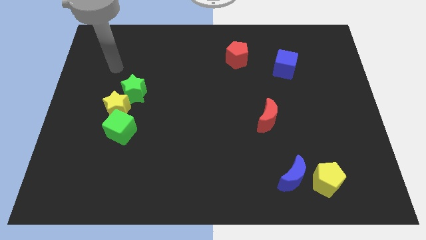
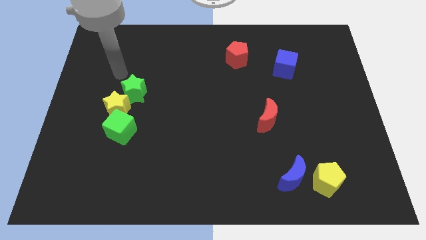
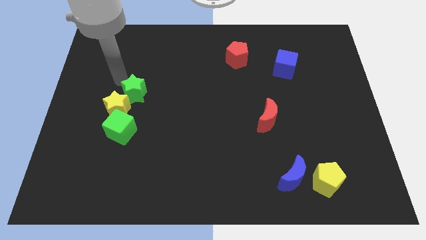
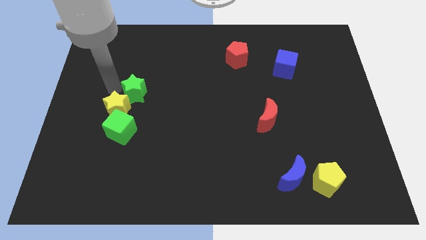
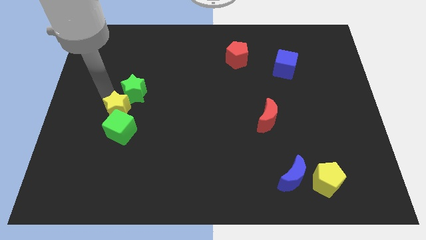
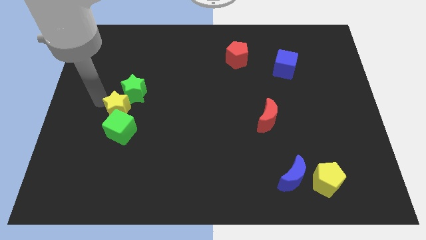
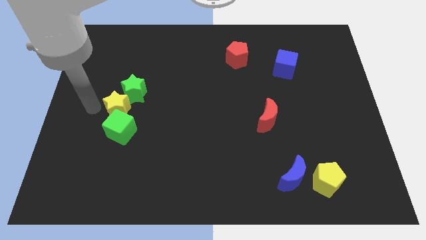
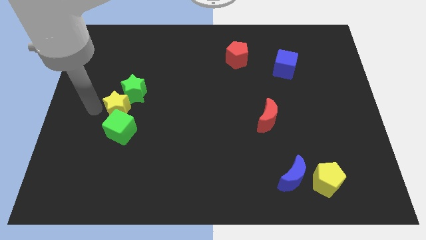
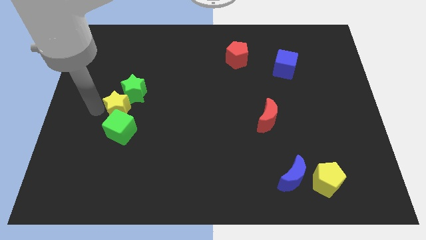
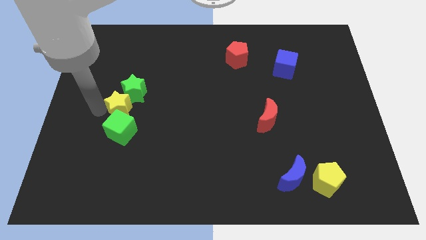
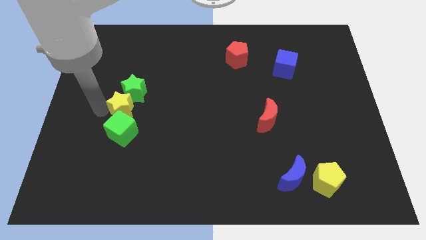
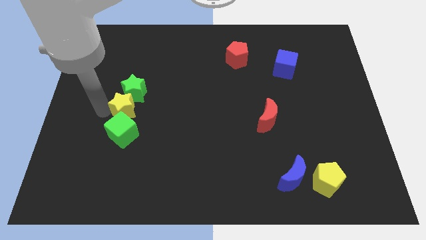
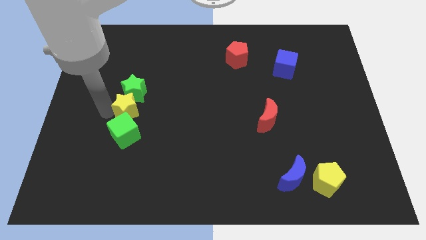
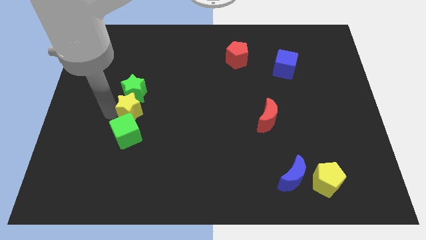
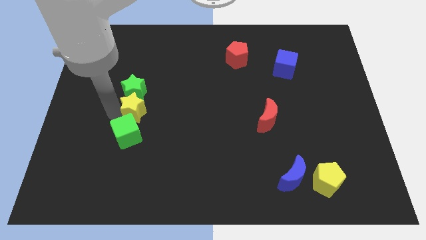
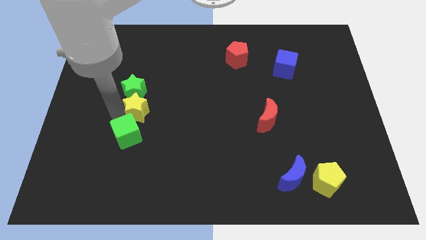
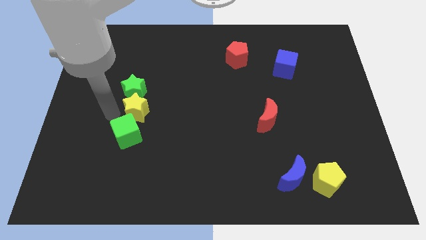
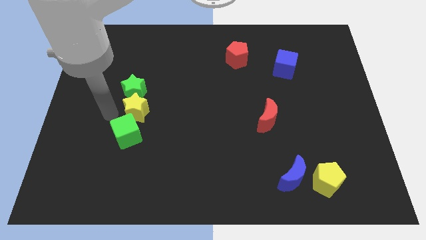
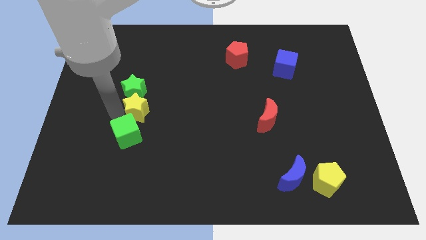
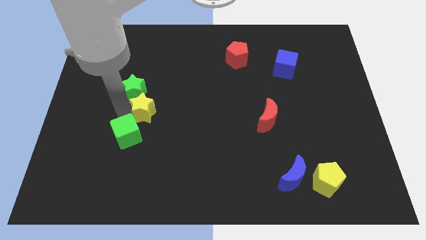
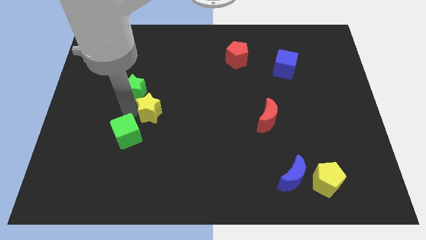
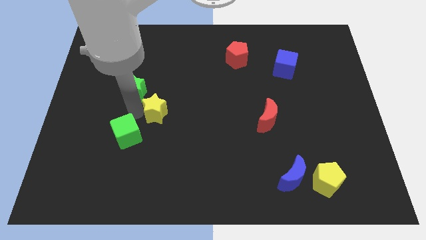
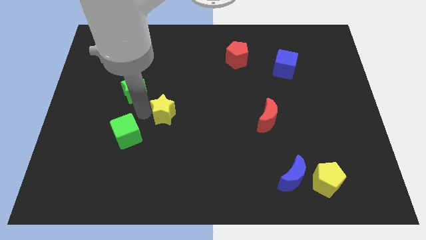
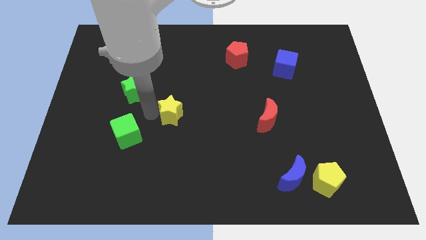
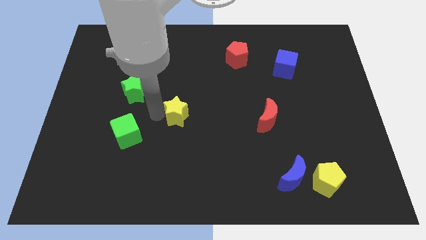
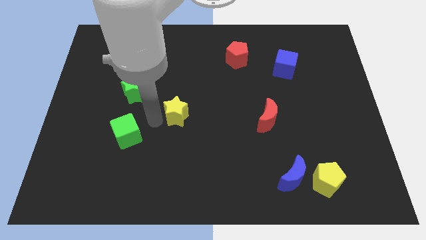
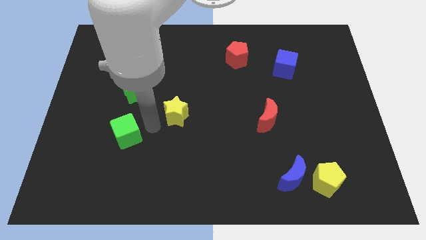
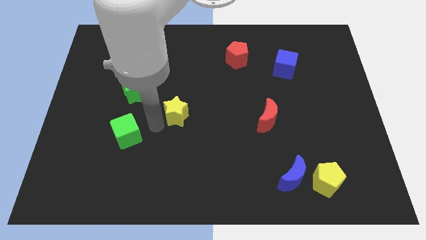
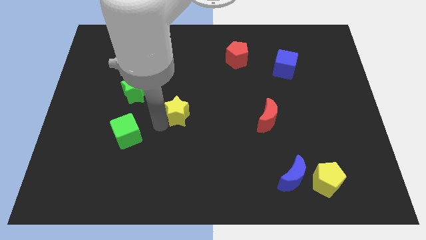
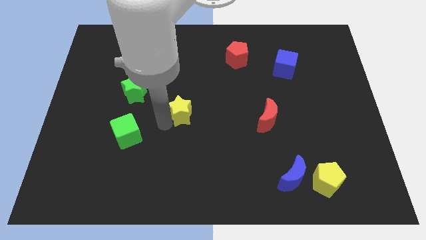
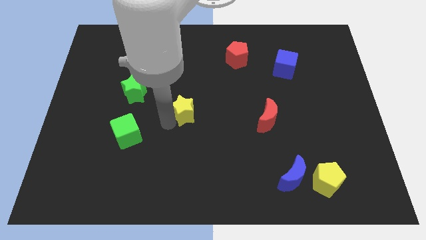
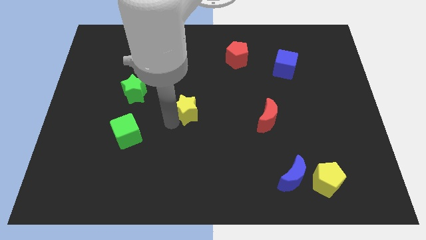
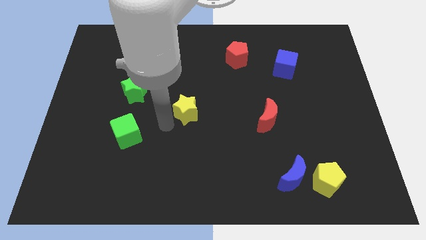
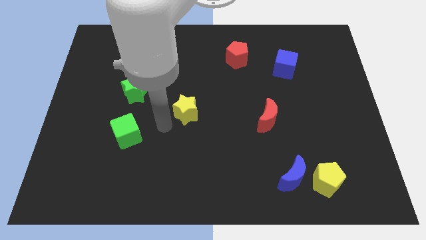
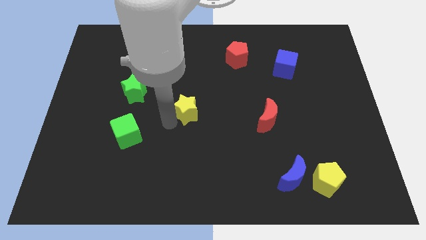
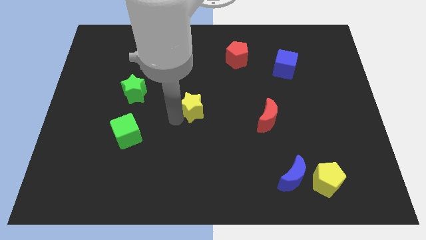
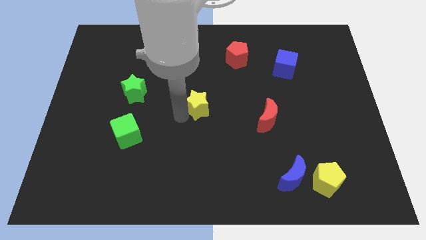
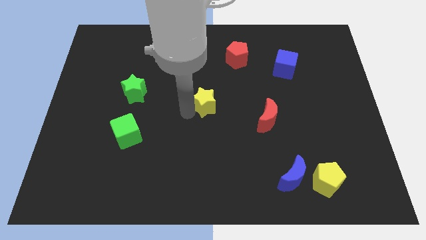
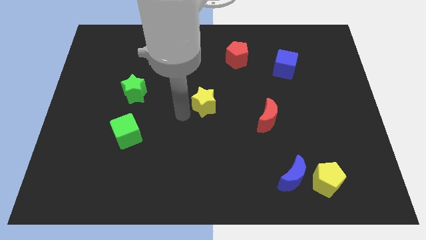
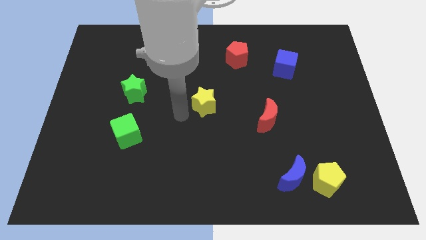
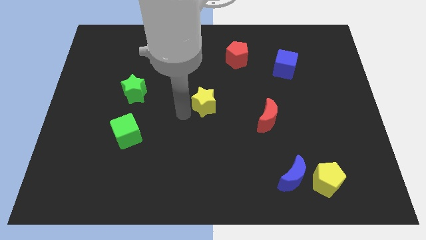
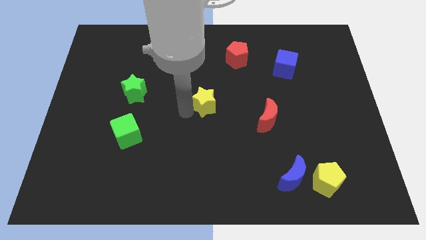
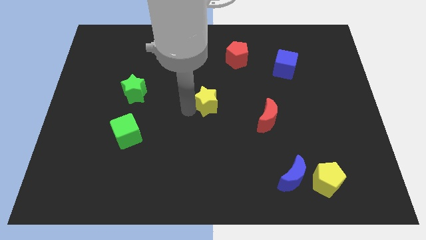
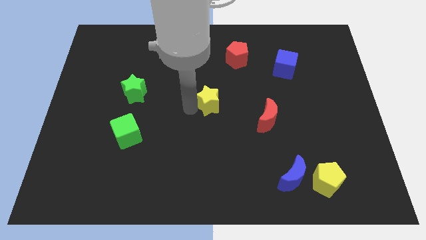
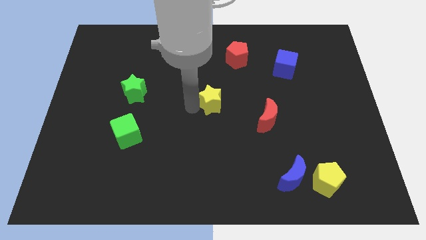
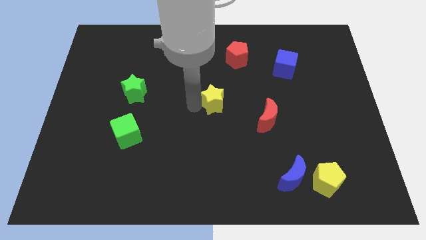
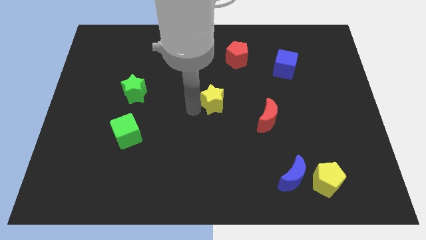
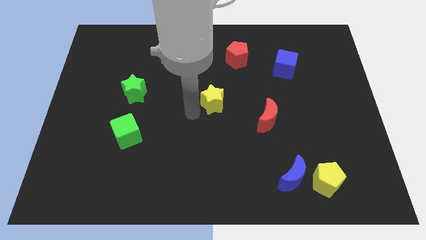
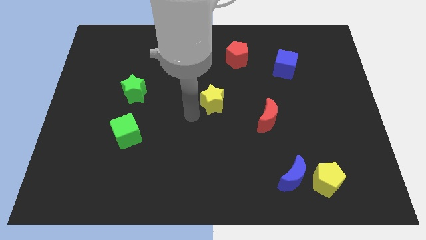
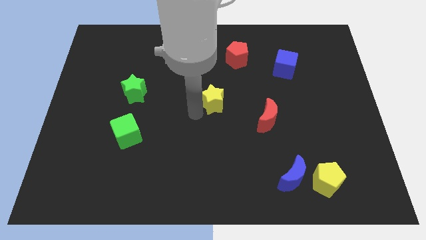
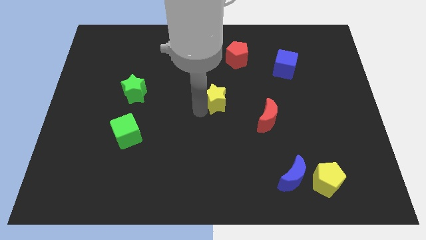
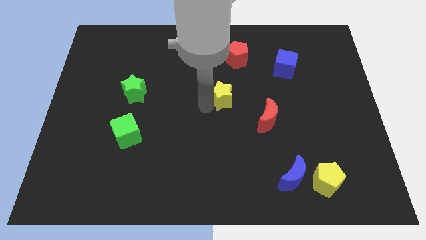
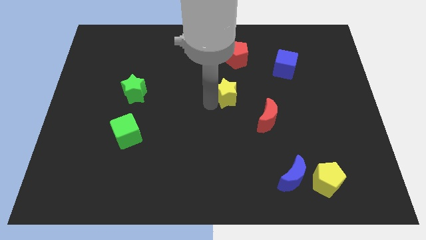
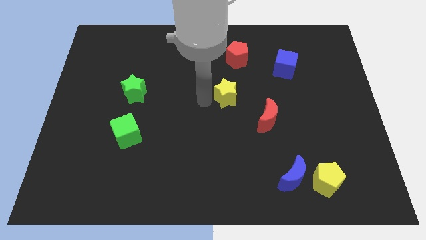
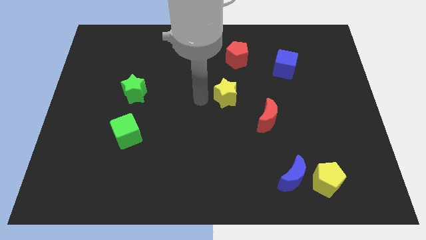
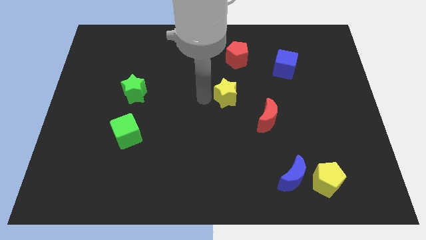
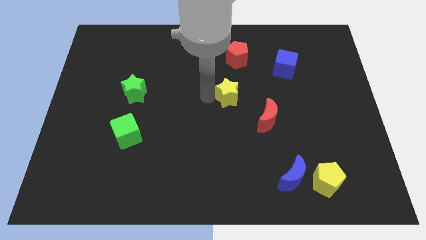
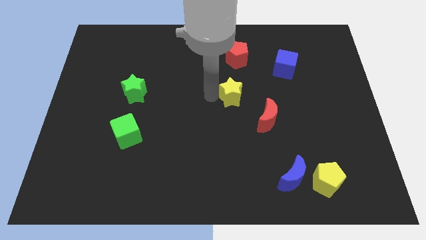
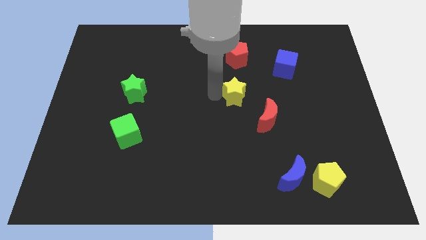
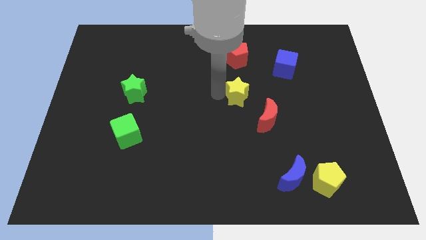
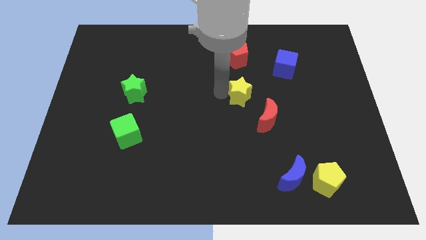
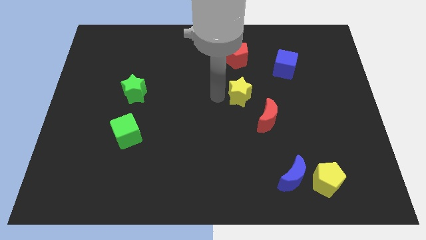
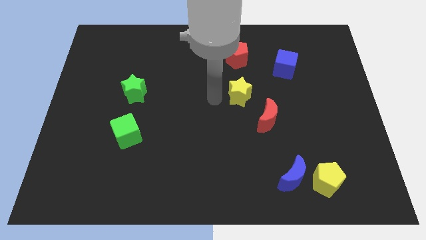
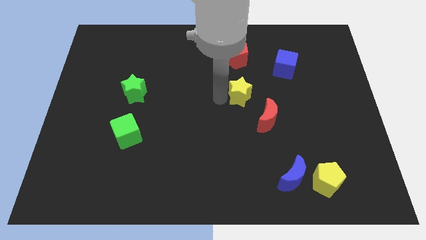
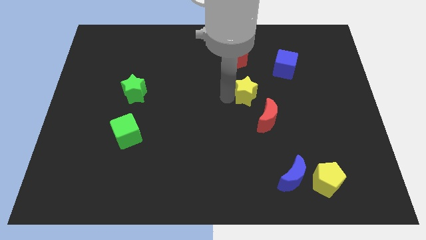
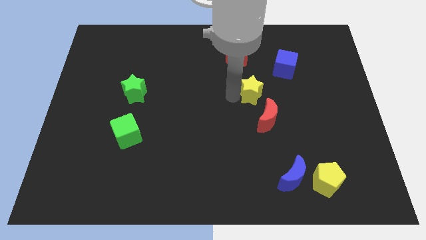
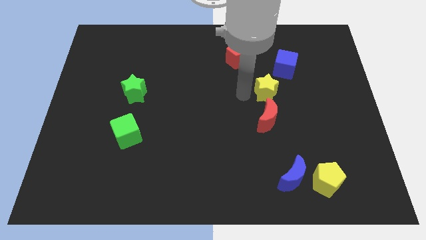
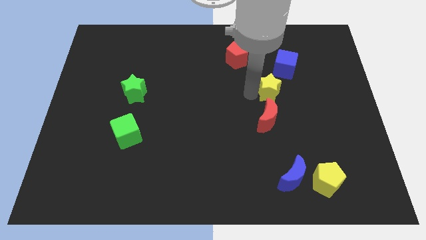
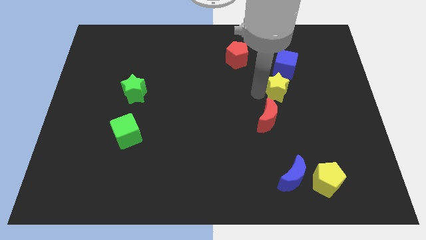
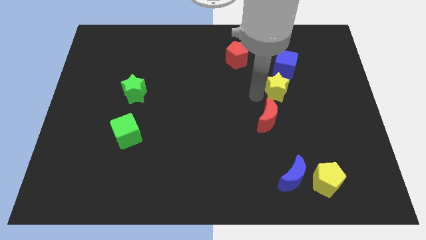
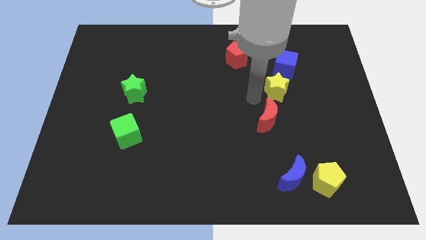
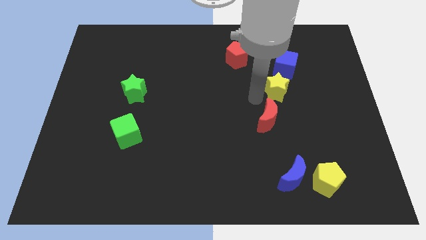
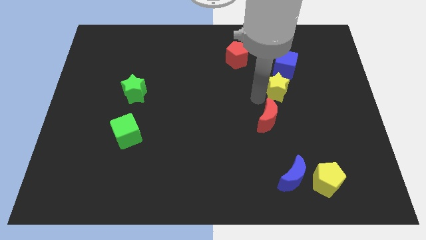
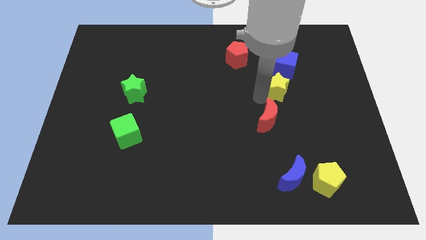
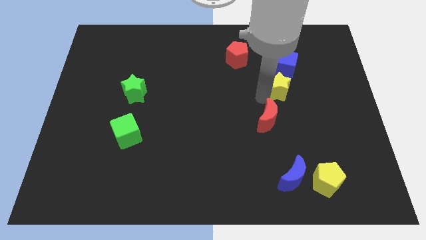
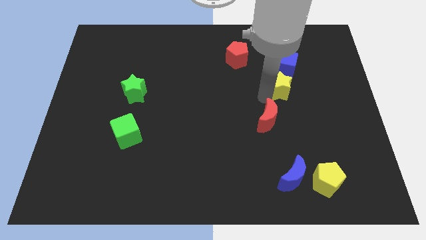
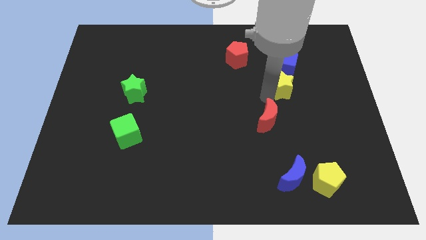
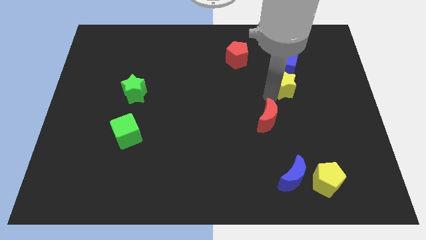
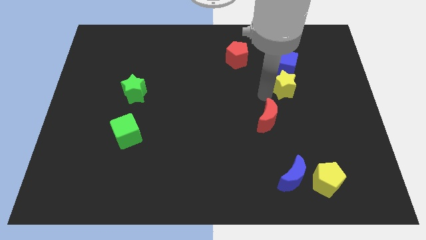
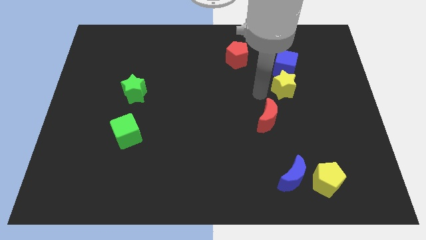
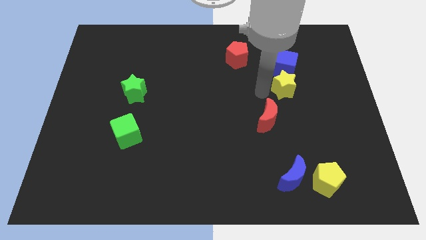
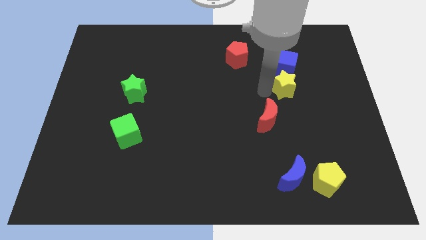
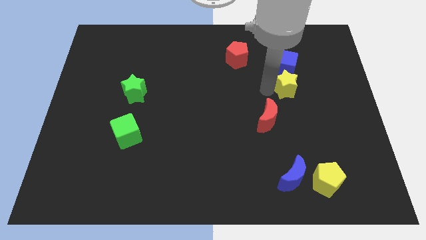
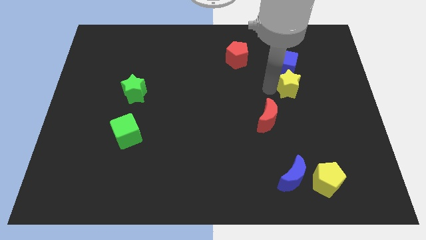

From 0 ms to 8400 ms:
put the yellow star to the bottom right of the blue cube
